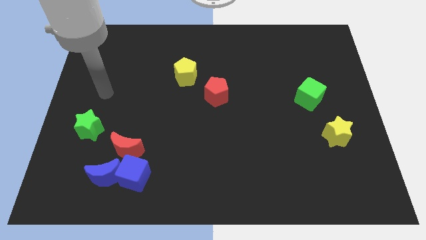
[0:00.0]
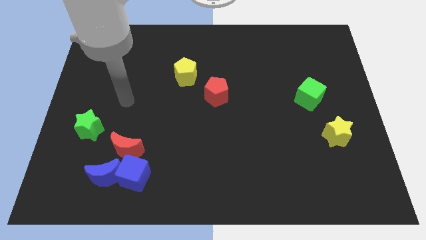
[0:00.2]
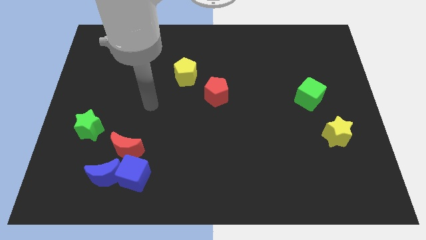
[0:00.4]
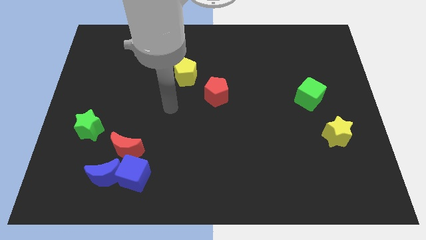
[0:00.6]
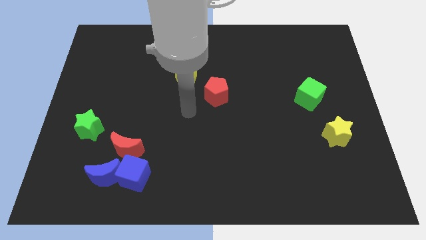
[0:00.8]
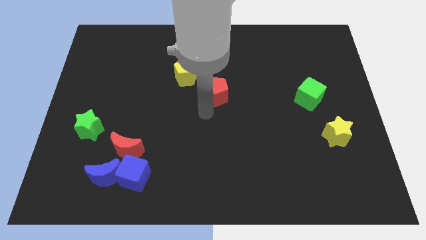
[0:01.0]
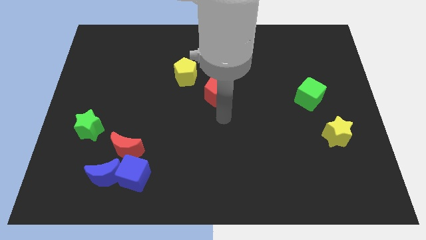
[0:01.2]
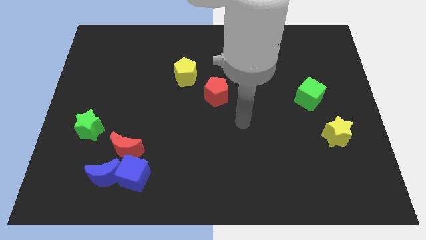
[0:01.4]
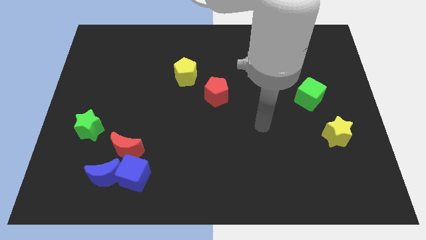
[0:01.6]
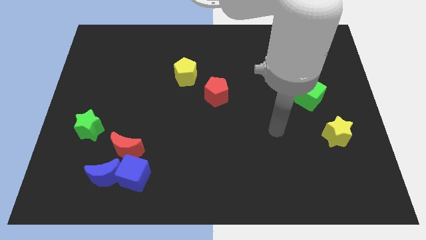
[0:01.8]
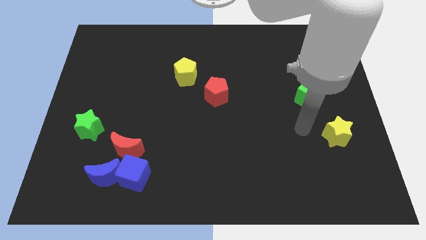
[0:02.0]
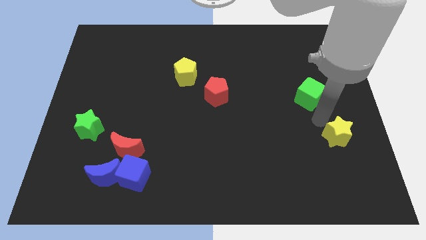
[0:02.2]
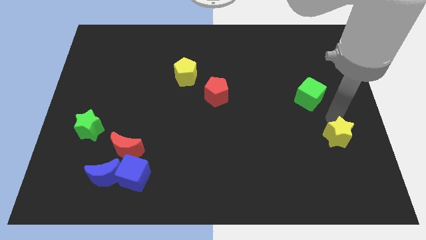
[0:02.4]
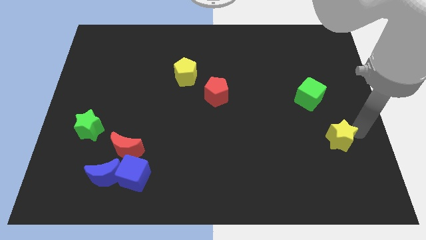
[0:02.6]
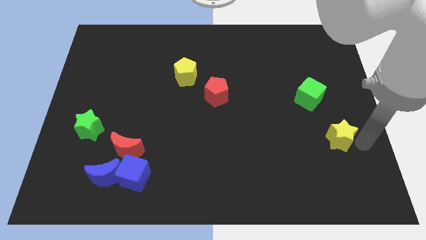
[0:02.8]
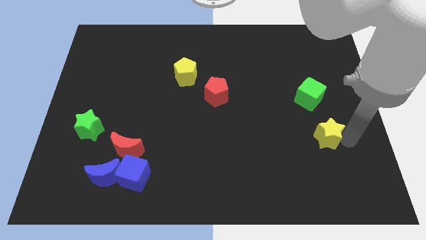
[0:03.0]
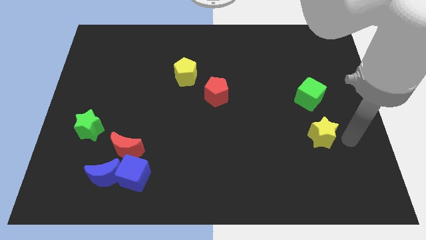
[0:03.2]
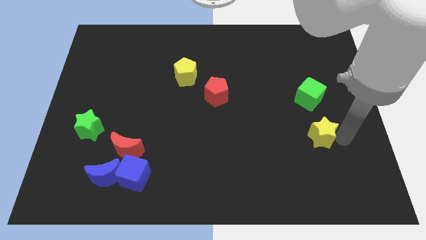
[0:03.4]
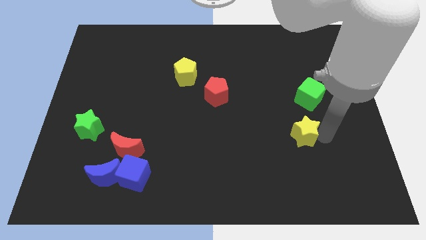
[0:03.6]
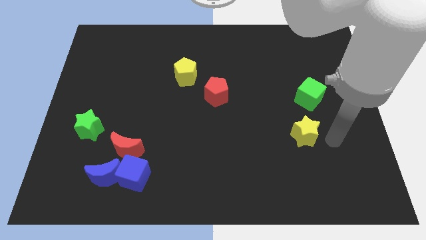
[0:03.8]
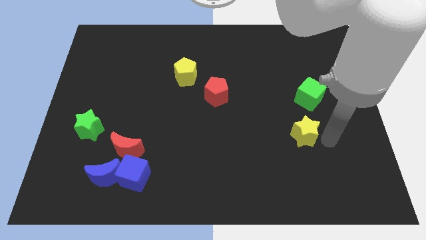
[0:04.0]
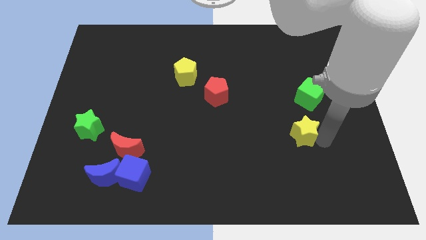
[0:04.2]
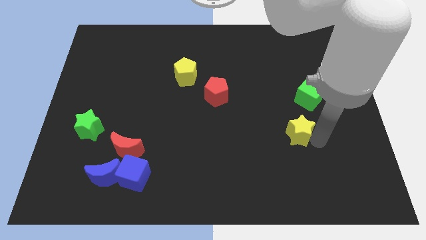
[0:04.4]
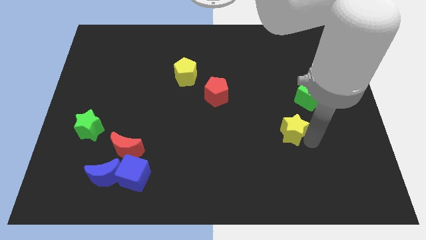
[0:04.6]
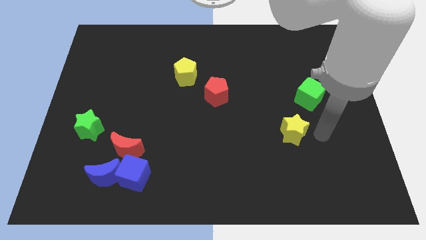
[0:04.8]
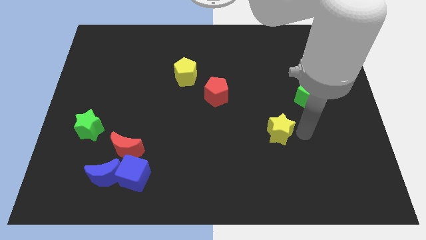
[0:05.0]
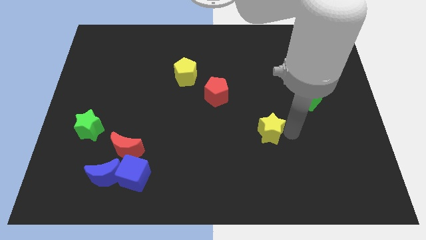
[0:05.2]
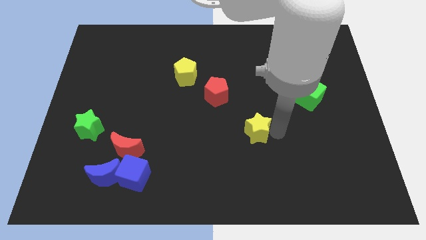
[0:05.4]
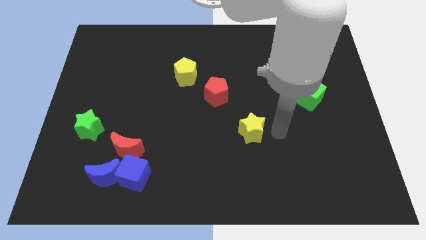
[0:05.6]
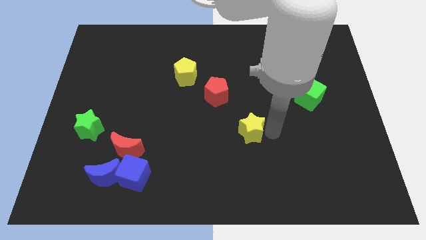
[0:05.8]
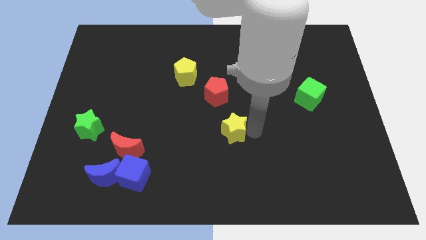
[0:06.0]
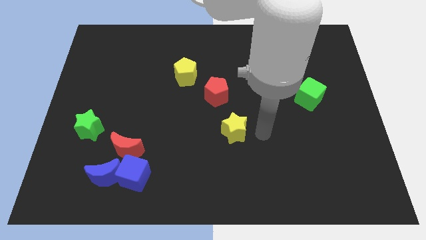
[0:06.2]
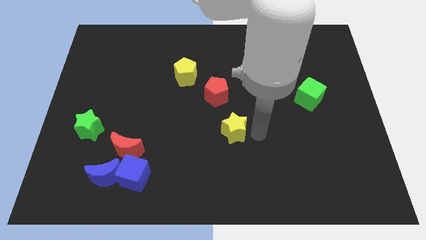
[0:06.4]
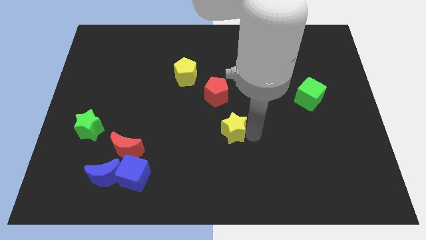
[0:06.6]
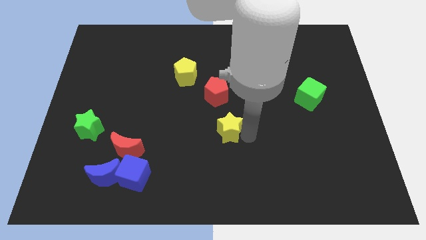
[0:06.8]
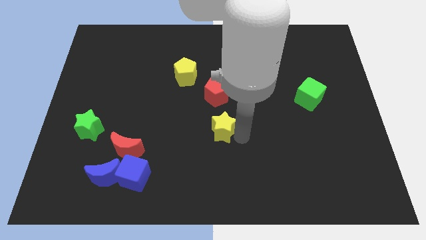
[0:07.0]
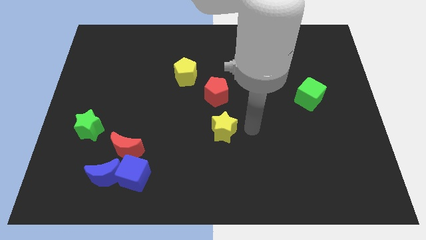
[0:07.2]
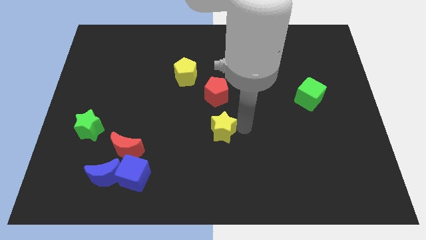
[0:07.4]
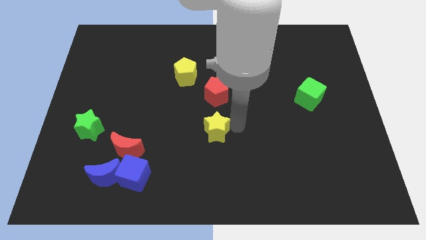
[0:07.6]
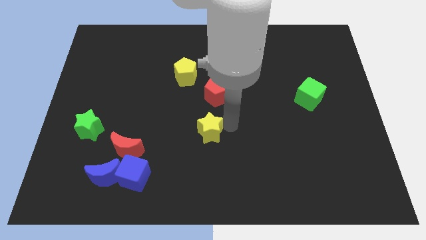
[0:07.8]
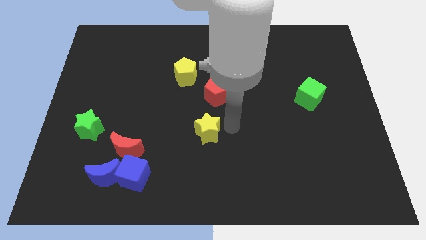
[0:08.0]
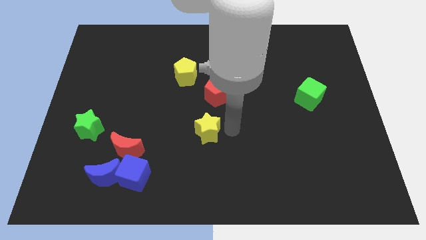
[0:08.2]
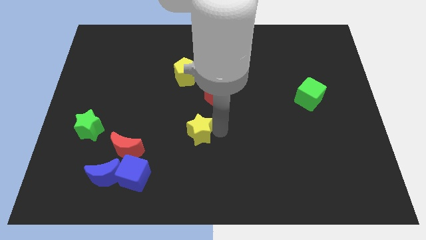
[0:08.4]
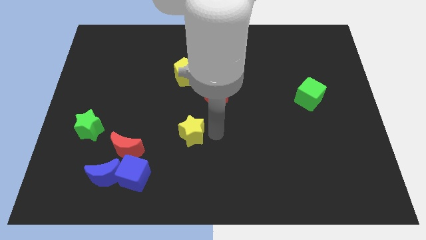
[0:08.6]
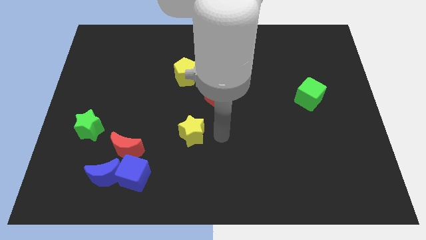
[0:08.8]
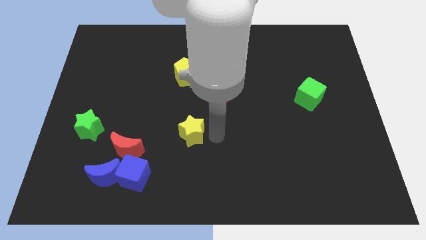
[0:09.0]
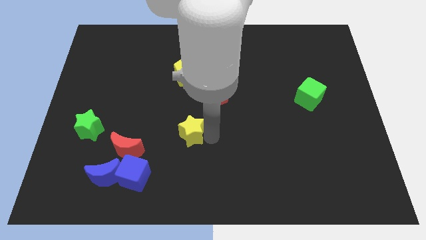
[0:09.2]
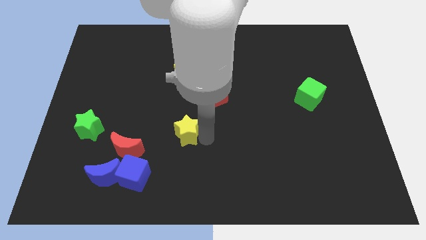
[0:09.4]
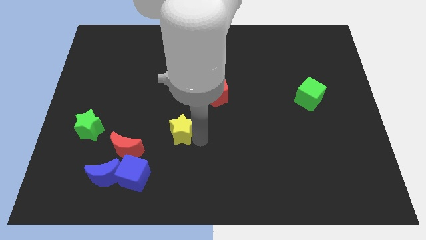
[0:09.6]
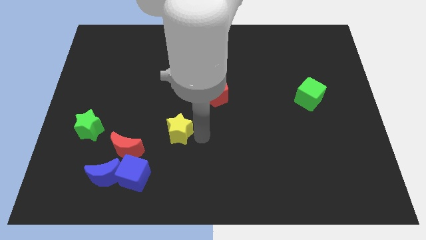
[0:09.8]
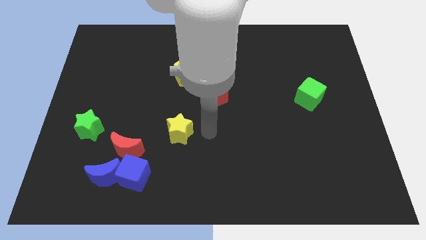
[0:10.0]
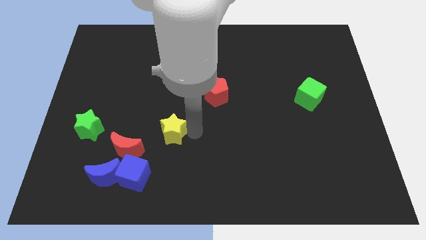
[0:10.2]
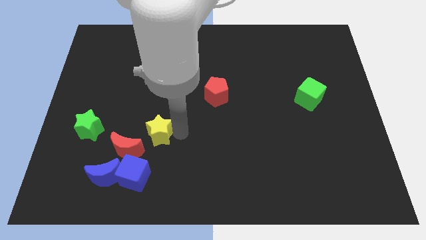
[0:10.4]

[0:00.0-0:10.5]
push the yellow star to the right side of the green star

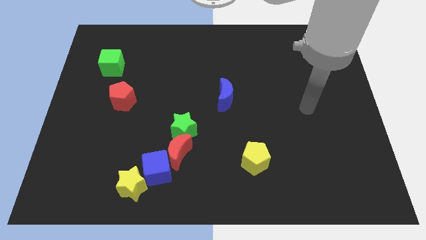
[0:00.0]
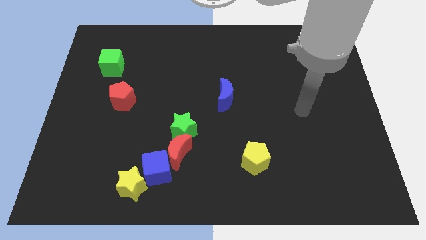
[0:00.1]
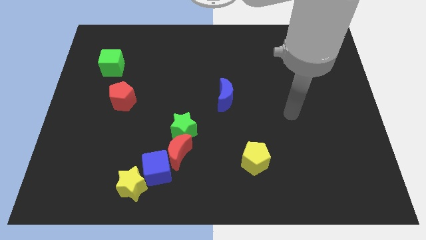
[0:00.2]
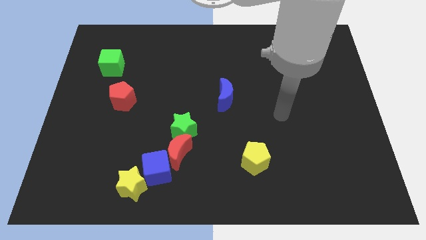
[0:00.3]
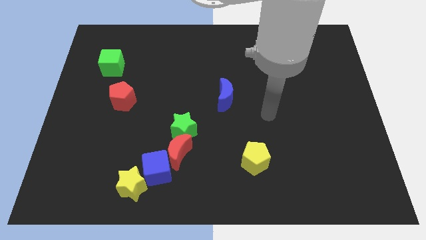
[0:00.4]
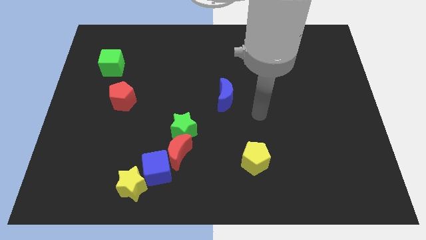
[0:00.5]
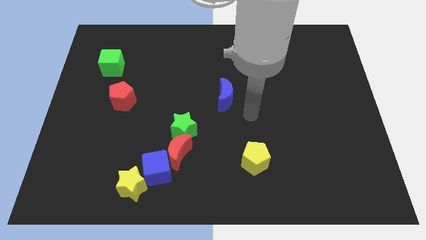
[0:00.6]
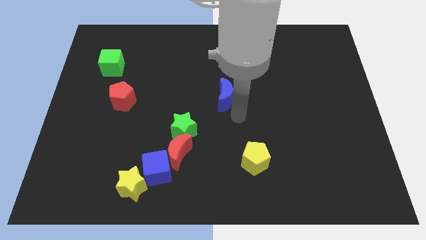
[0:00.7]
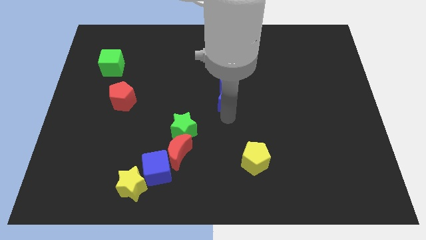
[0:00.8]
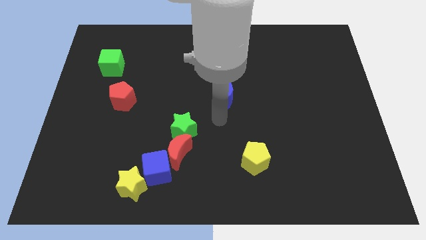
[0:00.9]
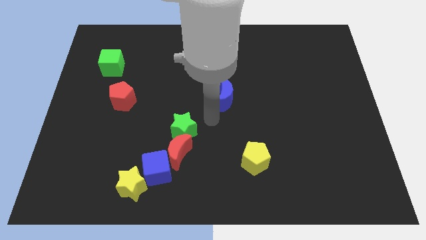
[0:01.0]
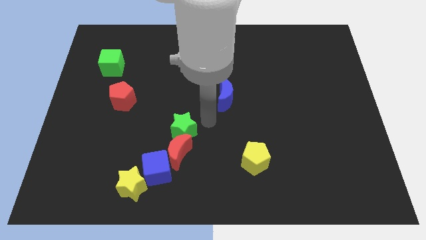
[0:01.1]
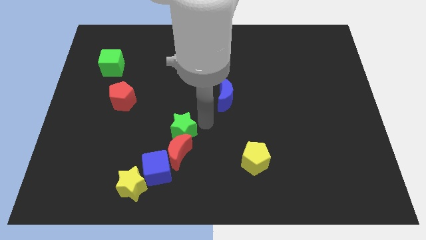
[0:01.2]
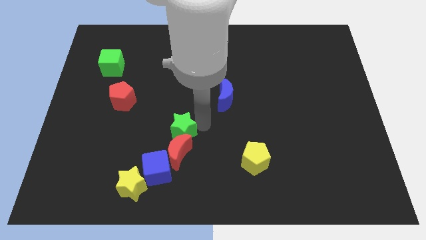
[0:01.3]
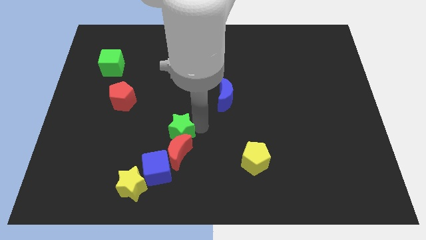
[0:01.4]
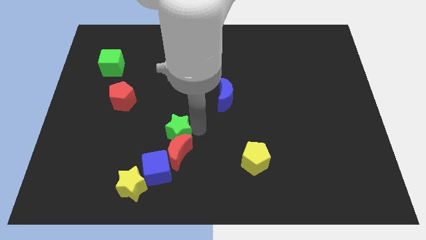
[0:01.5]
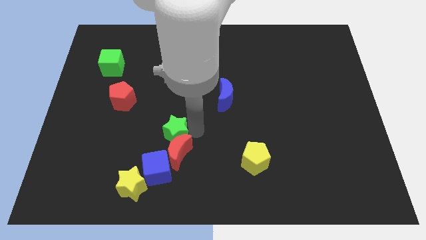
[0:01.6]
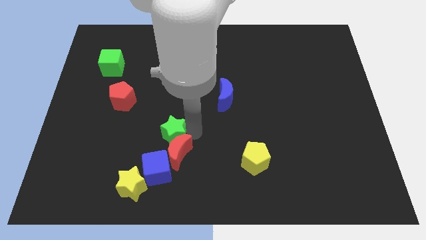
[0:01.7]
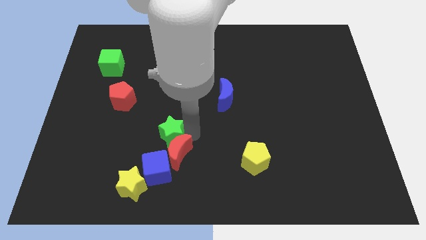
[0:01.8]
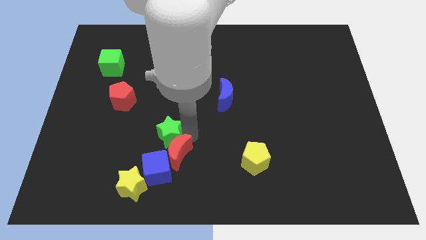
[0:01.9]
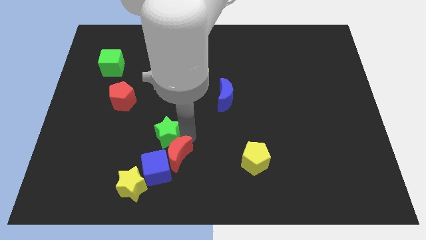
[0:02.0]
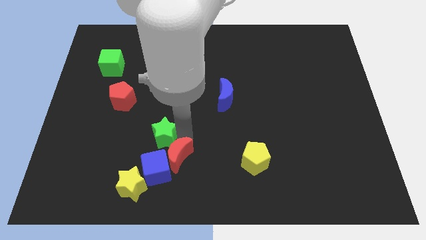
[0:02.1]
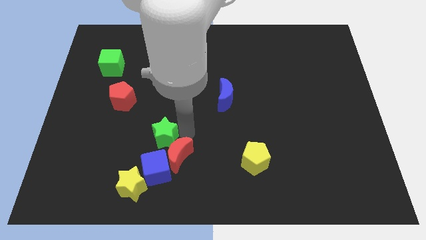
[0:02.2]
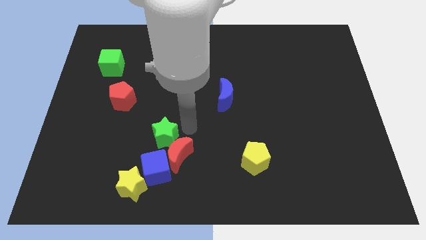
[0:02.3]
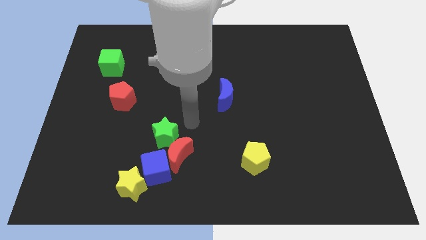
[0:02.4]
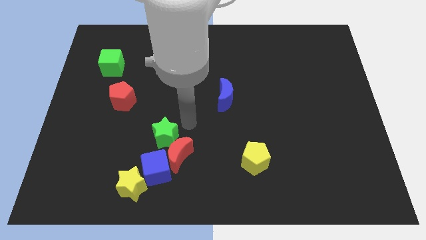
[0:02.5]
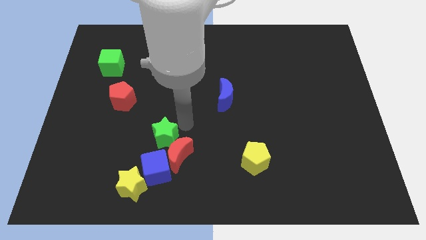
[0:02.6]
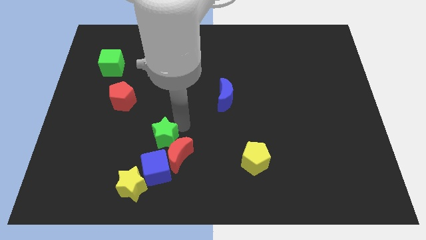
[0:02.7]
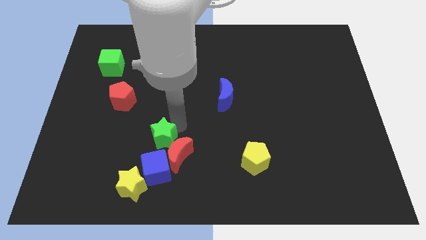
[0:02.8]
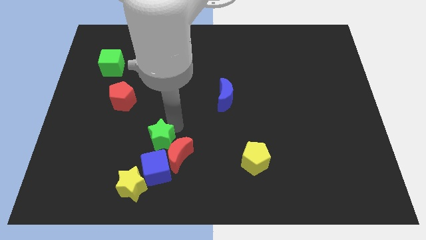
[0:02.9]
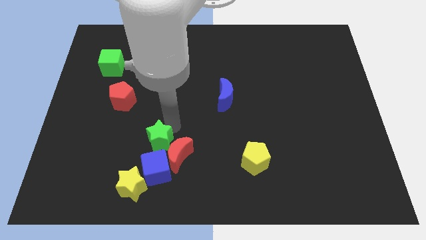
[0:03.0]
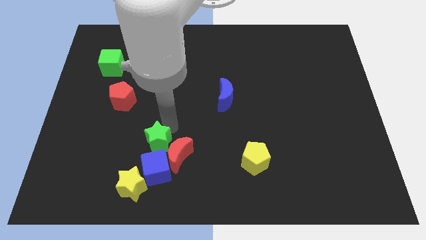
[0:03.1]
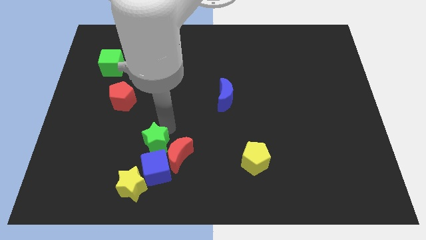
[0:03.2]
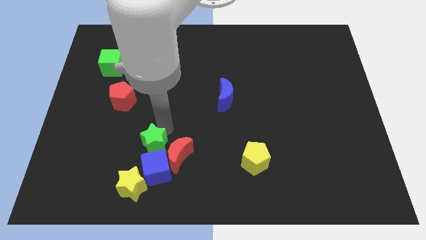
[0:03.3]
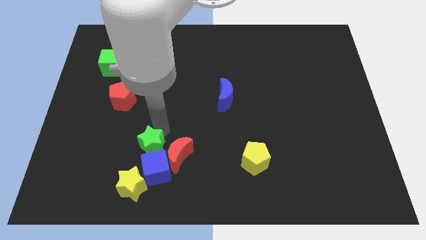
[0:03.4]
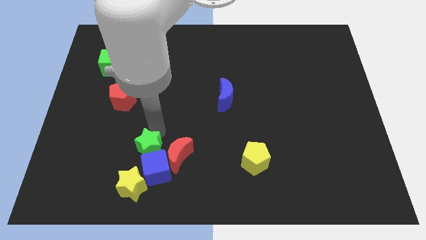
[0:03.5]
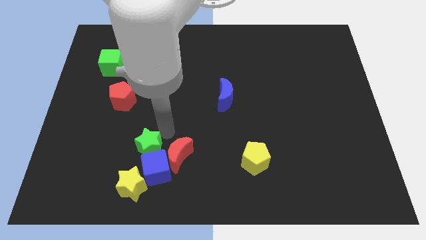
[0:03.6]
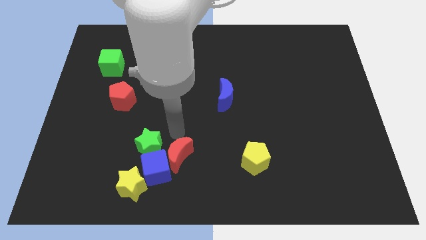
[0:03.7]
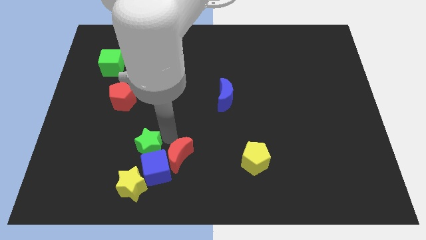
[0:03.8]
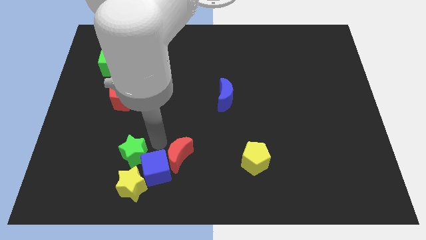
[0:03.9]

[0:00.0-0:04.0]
slide the green star to the left side of the blue cube
